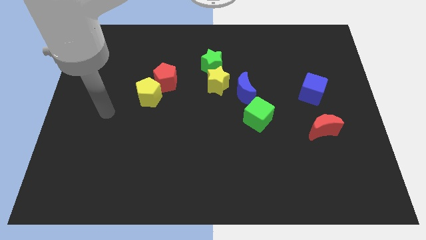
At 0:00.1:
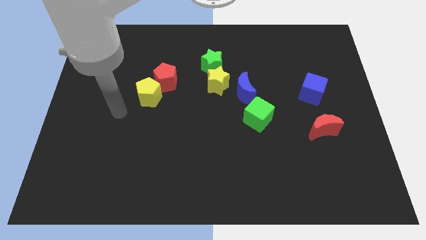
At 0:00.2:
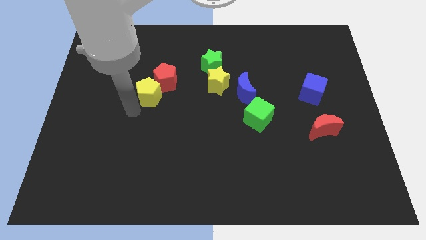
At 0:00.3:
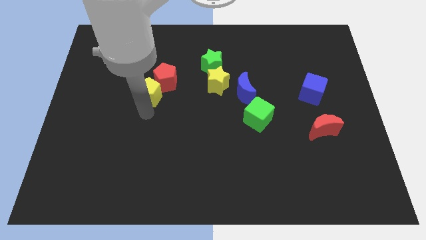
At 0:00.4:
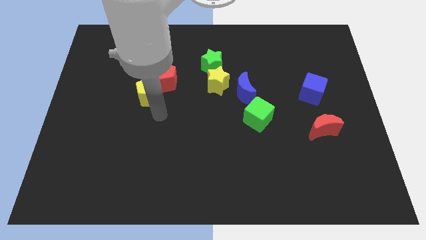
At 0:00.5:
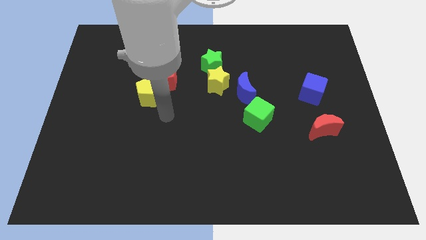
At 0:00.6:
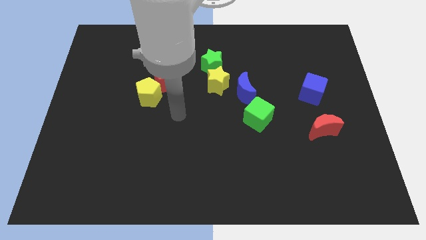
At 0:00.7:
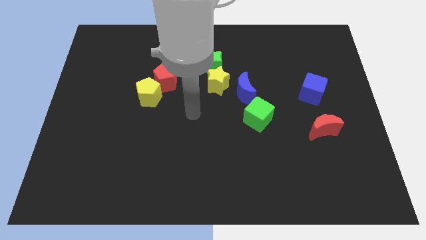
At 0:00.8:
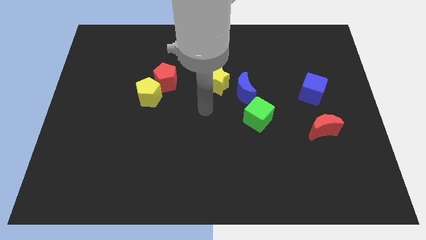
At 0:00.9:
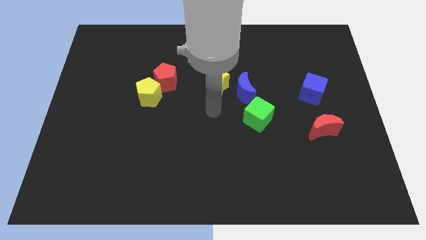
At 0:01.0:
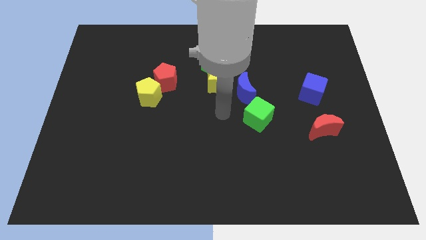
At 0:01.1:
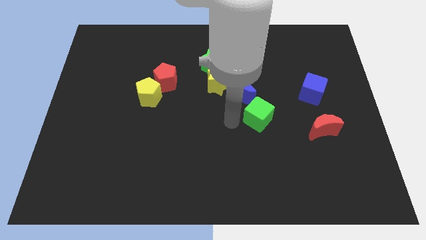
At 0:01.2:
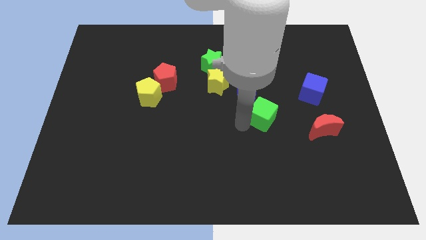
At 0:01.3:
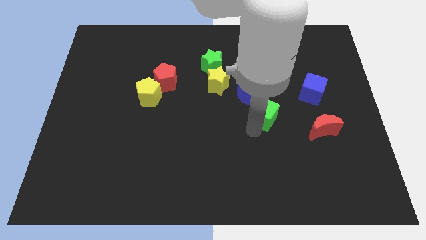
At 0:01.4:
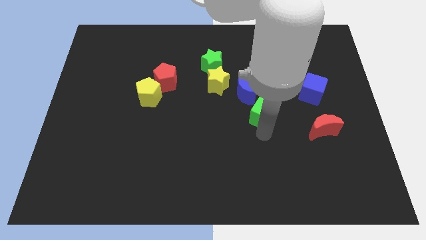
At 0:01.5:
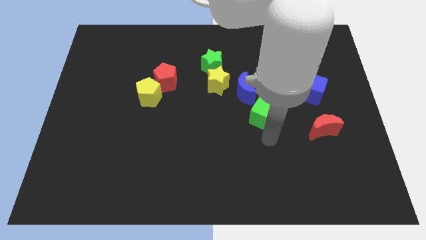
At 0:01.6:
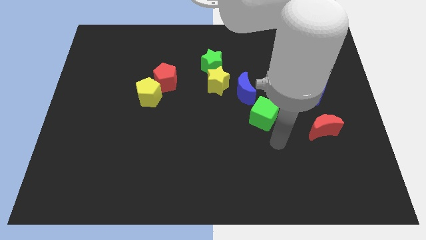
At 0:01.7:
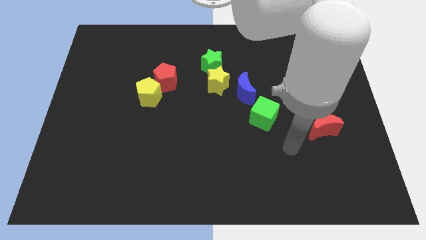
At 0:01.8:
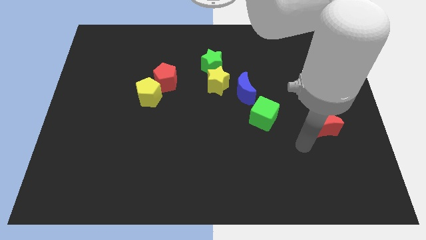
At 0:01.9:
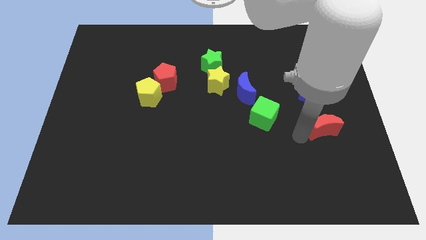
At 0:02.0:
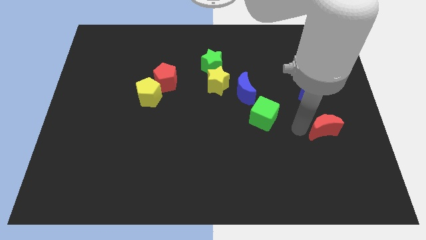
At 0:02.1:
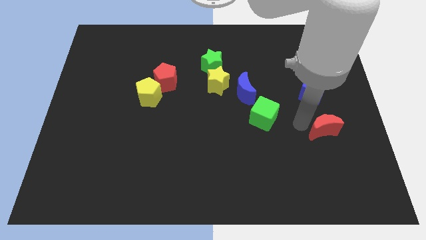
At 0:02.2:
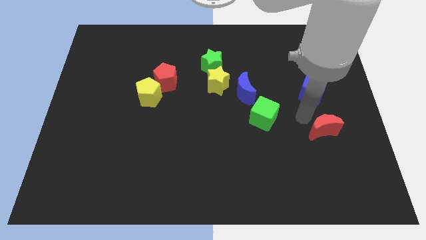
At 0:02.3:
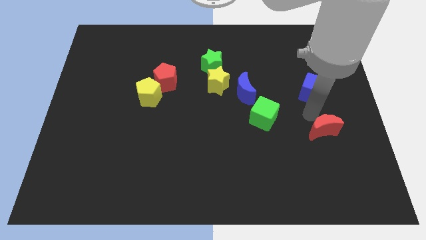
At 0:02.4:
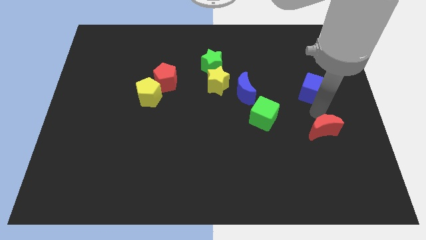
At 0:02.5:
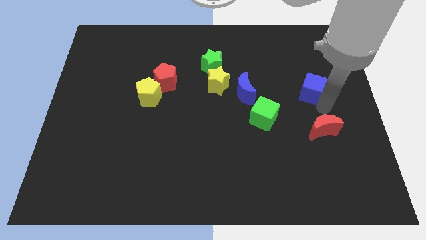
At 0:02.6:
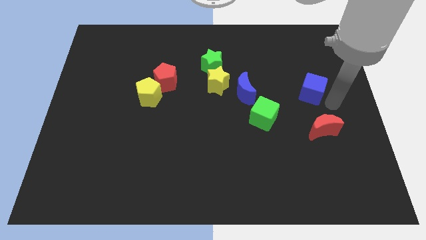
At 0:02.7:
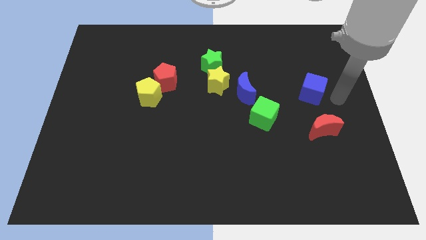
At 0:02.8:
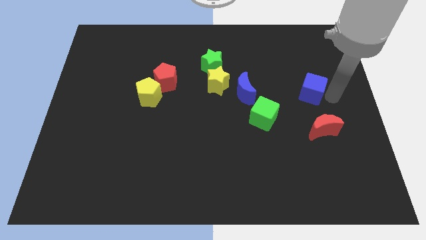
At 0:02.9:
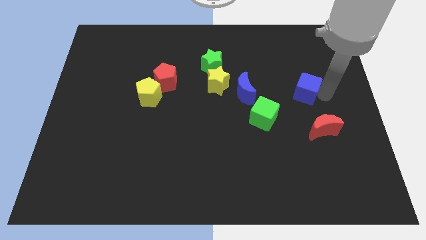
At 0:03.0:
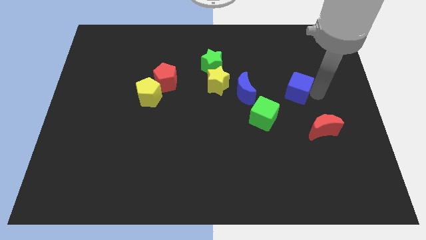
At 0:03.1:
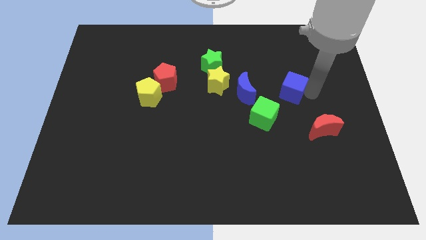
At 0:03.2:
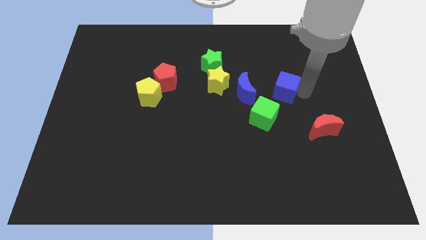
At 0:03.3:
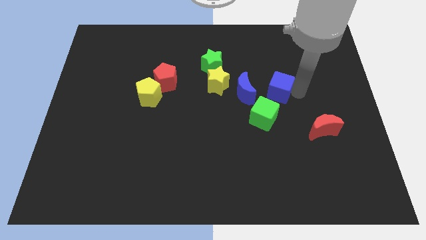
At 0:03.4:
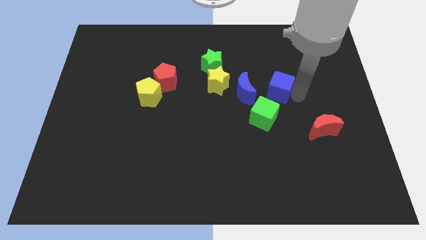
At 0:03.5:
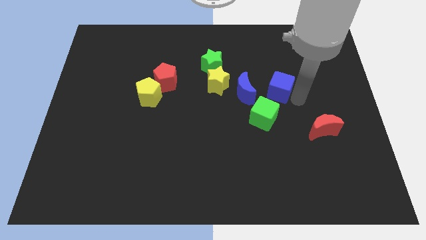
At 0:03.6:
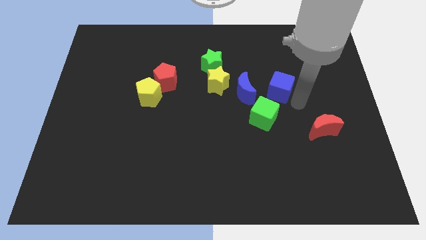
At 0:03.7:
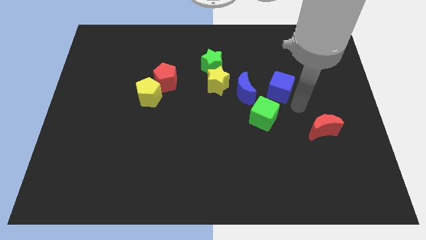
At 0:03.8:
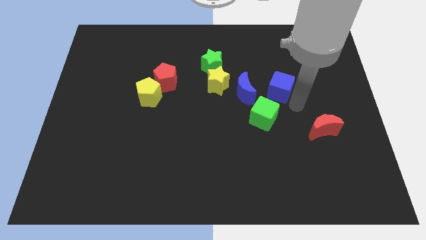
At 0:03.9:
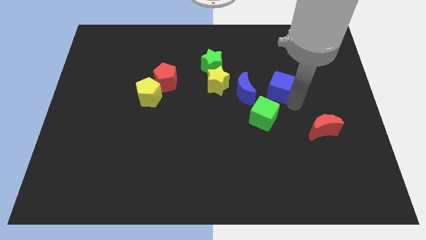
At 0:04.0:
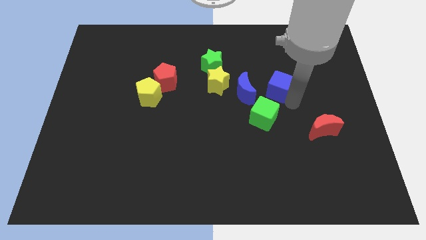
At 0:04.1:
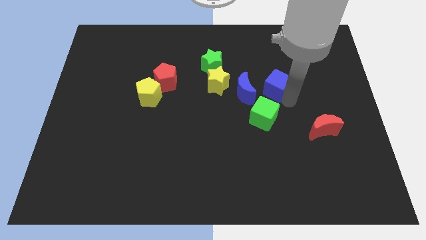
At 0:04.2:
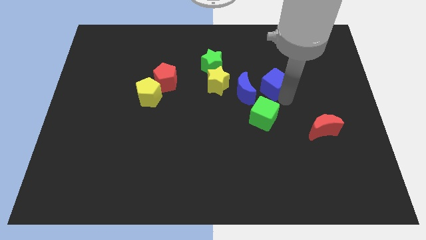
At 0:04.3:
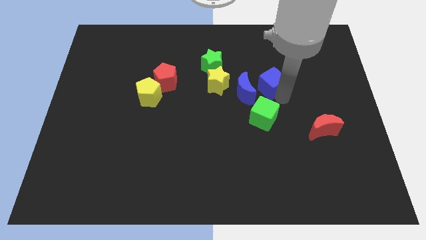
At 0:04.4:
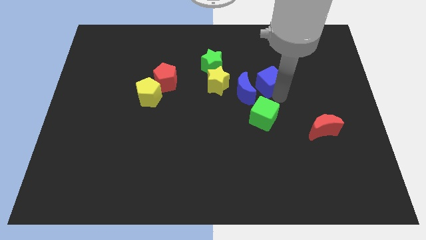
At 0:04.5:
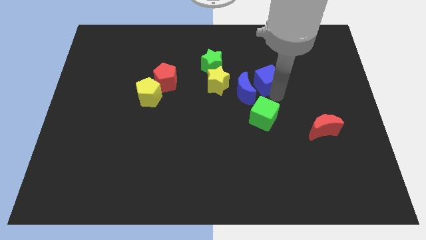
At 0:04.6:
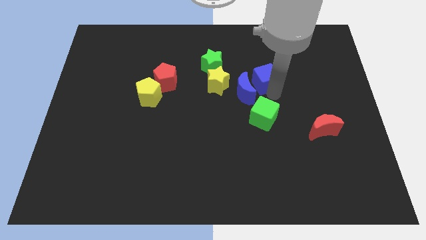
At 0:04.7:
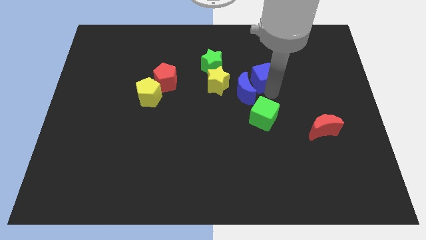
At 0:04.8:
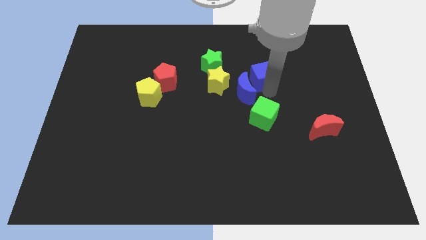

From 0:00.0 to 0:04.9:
move the blue cube to the top side of the blue moon

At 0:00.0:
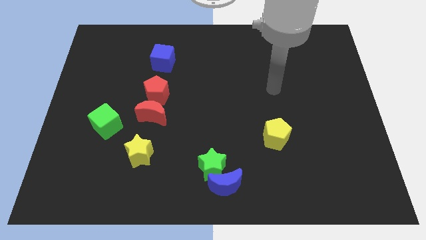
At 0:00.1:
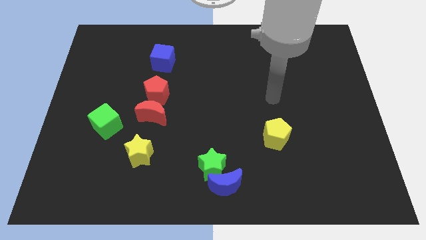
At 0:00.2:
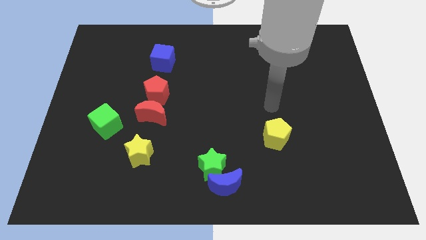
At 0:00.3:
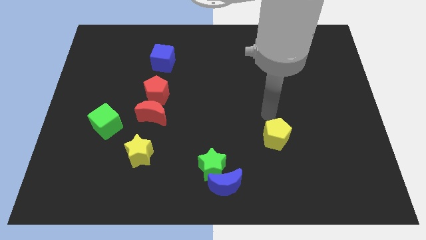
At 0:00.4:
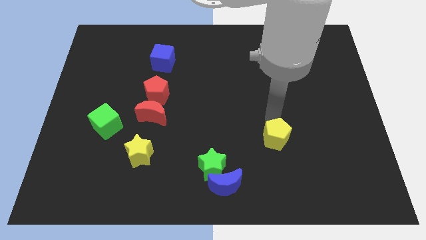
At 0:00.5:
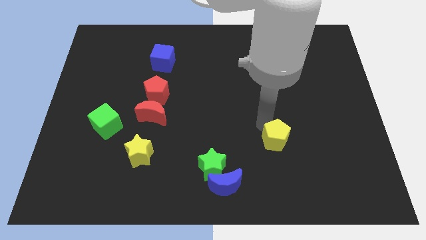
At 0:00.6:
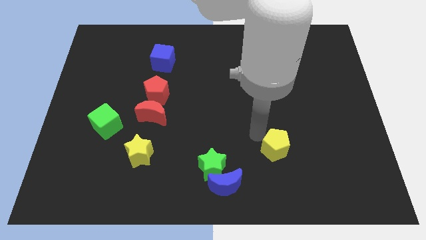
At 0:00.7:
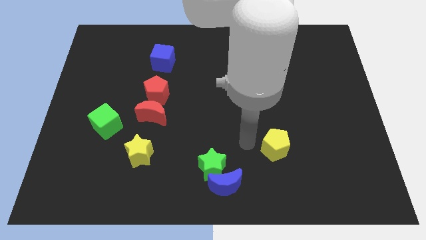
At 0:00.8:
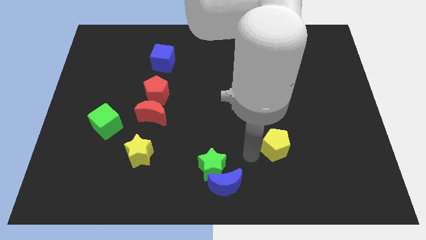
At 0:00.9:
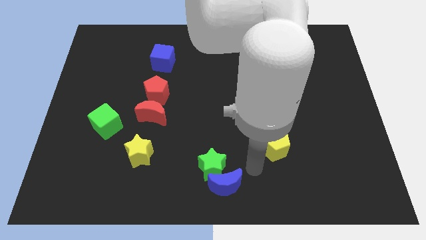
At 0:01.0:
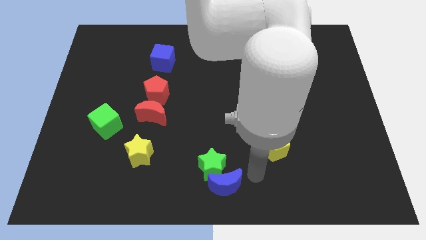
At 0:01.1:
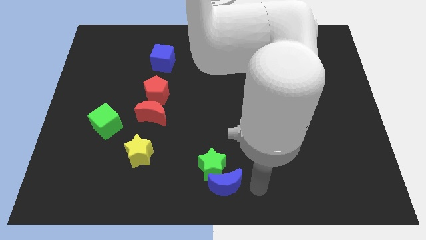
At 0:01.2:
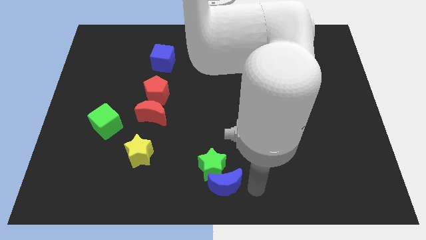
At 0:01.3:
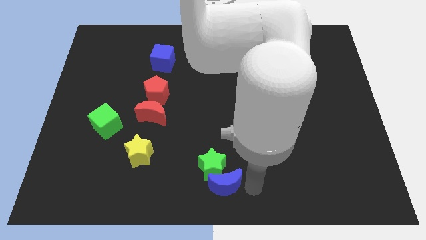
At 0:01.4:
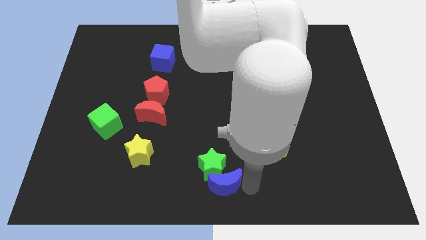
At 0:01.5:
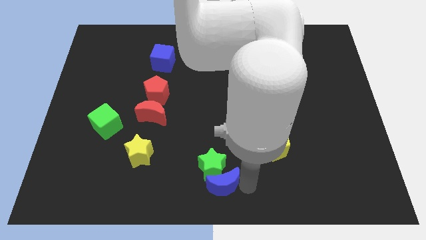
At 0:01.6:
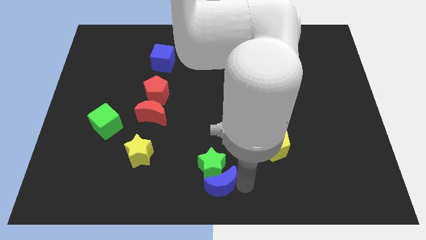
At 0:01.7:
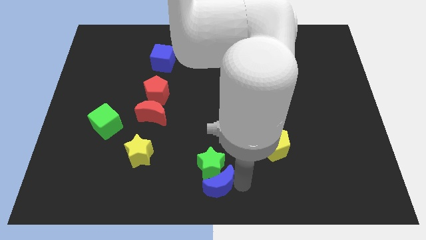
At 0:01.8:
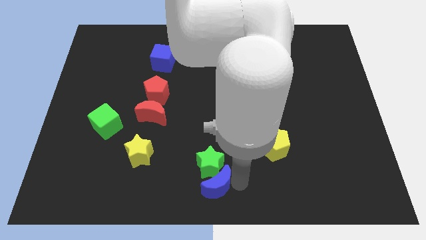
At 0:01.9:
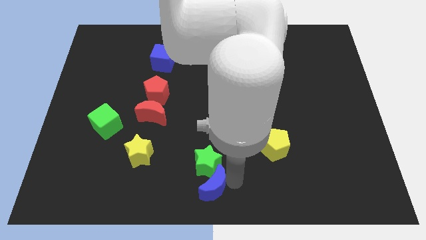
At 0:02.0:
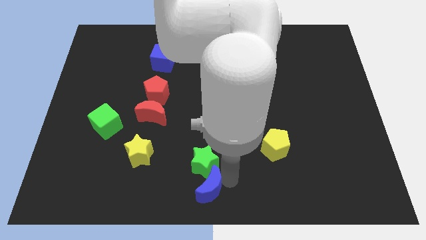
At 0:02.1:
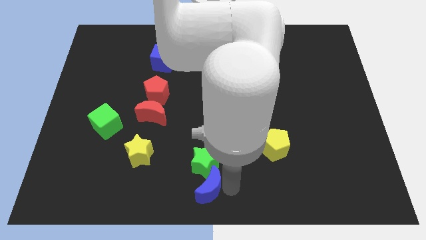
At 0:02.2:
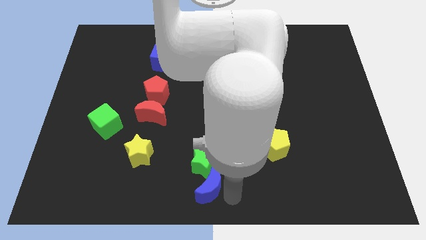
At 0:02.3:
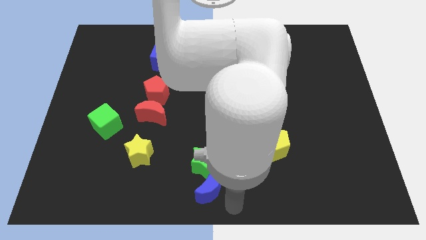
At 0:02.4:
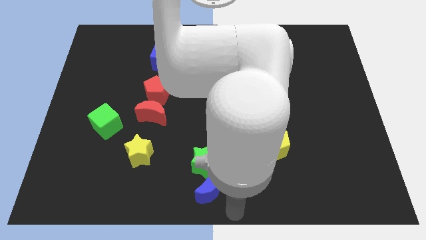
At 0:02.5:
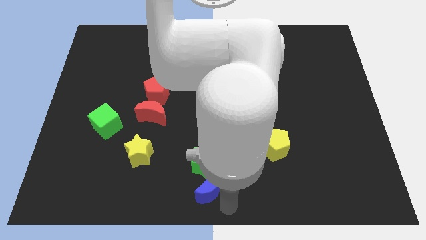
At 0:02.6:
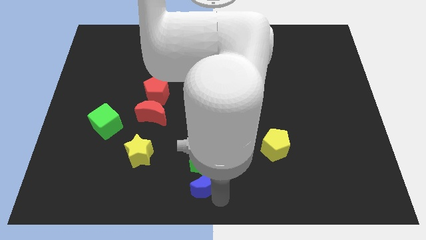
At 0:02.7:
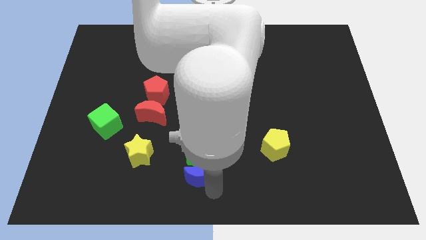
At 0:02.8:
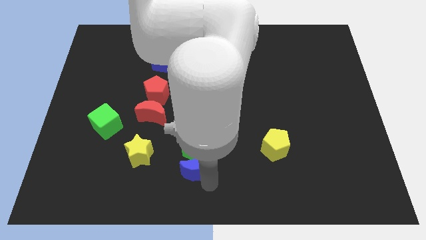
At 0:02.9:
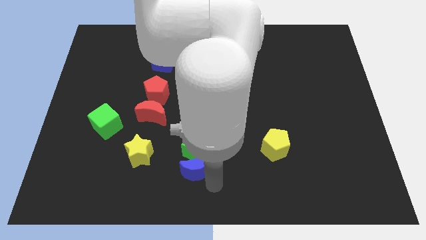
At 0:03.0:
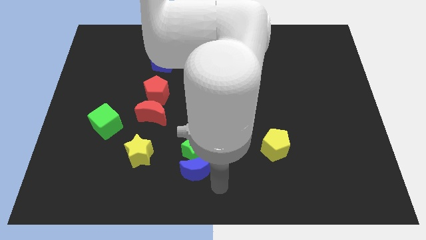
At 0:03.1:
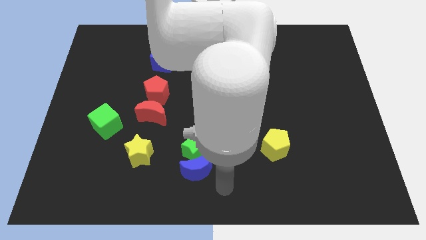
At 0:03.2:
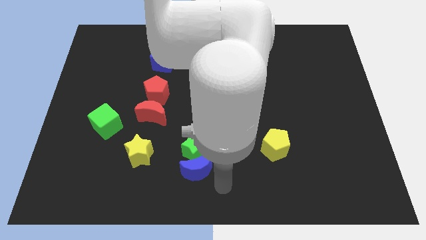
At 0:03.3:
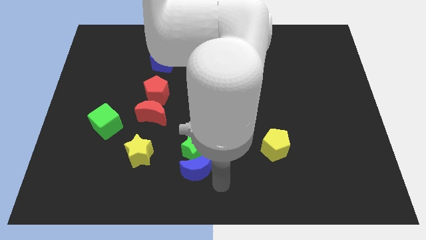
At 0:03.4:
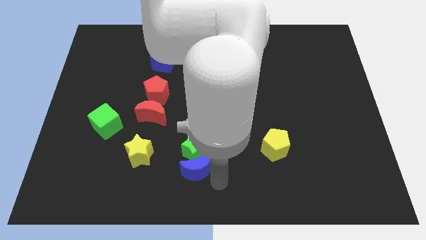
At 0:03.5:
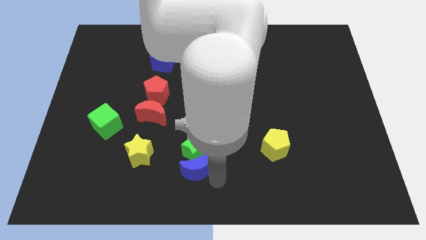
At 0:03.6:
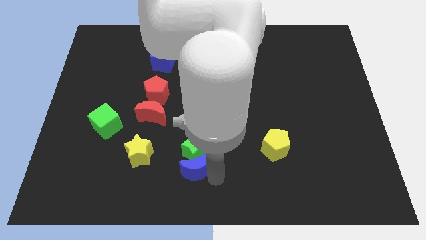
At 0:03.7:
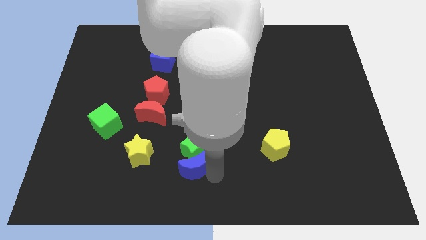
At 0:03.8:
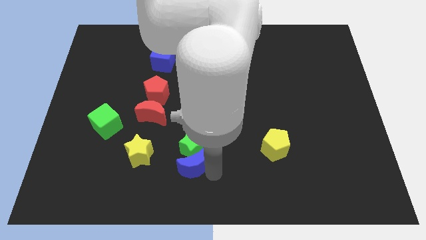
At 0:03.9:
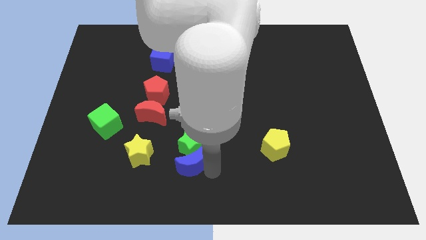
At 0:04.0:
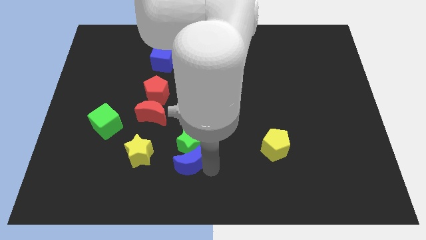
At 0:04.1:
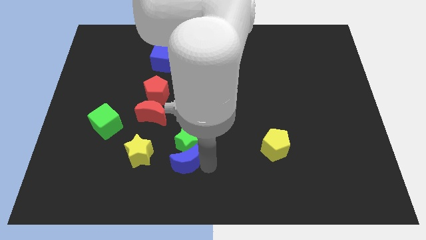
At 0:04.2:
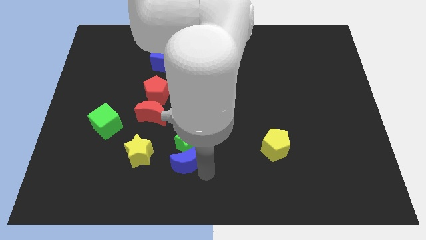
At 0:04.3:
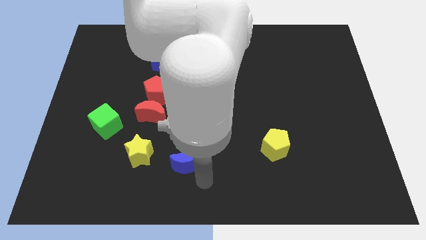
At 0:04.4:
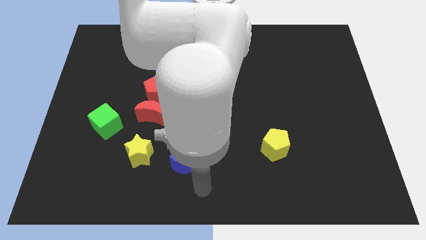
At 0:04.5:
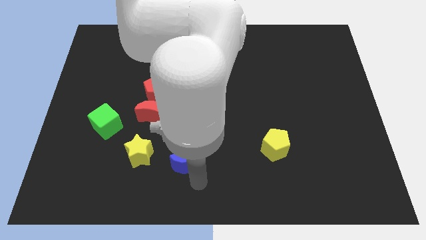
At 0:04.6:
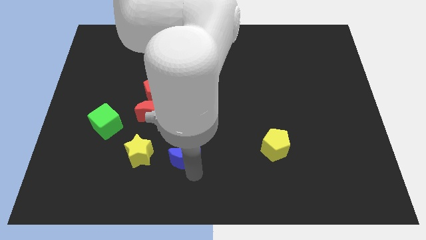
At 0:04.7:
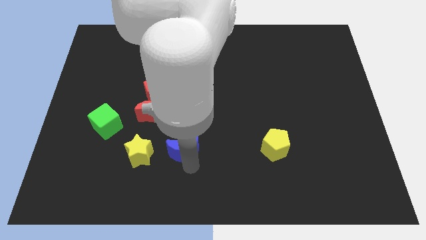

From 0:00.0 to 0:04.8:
push the blue moon diagonally down and to the right of the red moon
